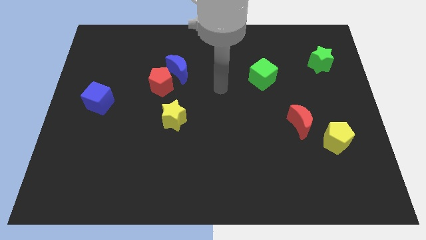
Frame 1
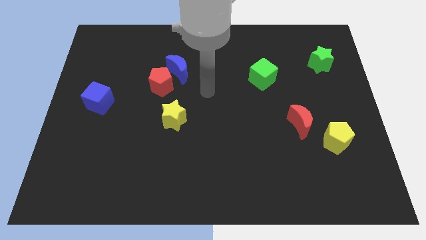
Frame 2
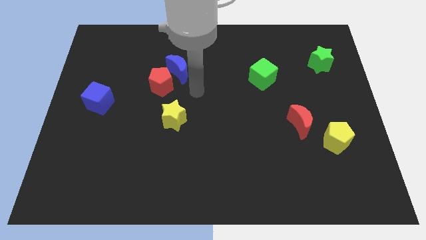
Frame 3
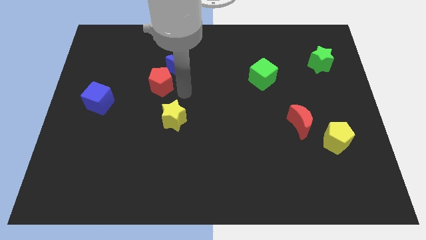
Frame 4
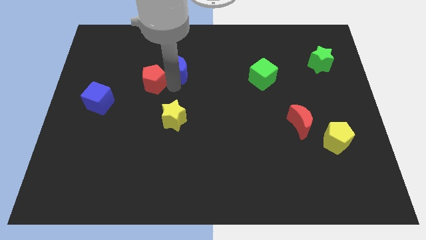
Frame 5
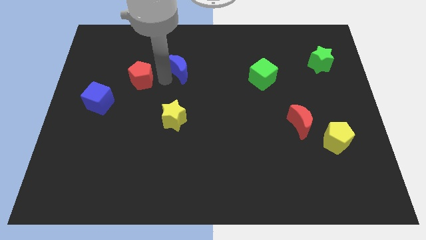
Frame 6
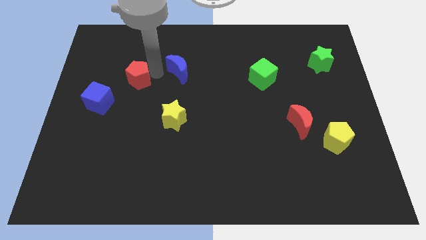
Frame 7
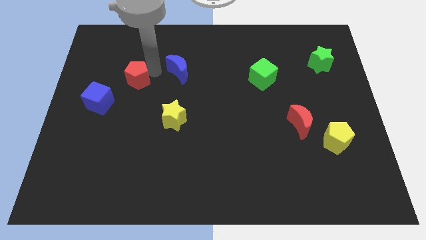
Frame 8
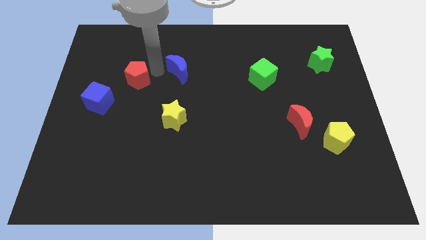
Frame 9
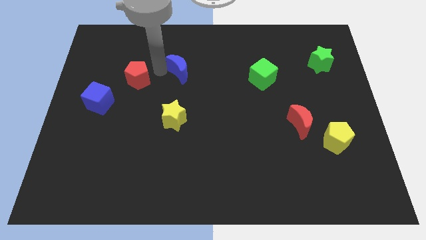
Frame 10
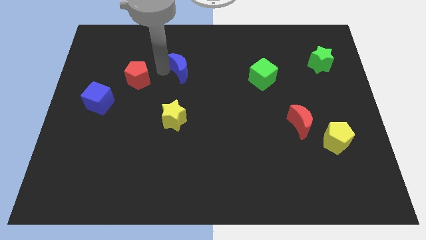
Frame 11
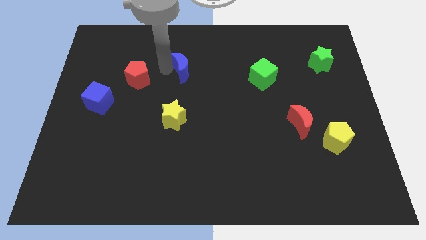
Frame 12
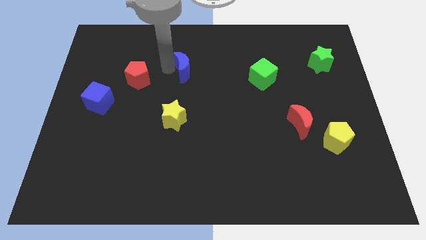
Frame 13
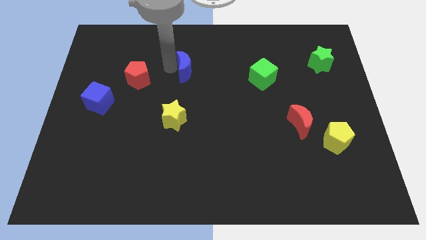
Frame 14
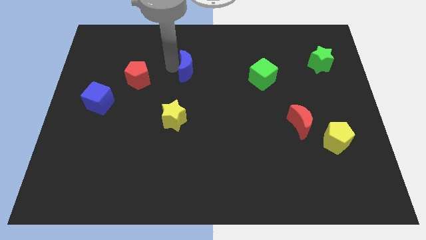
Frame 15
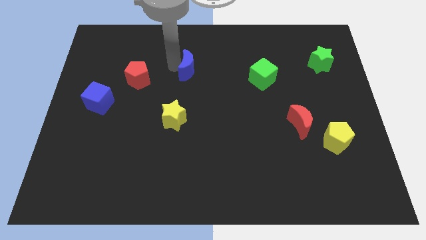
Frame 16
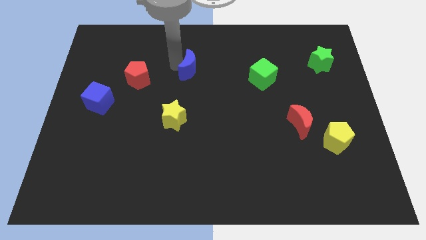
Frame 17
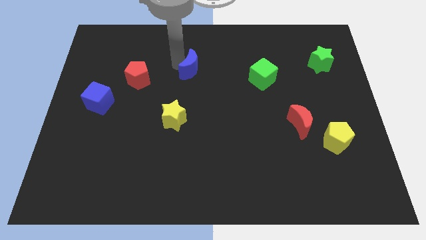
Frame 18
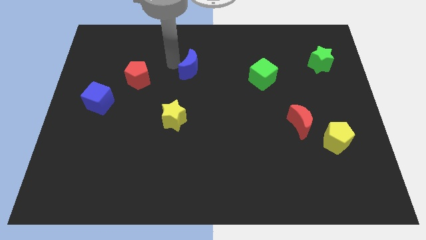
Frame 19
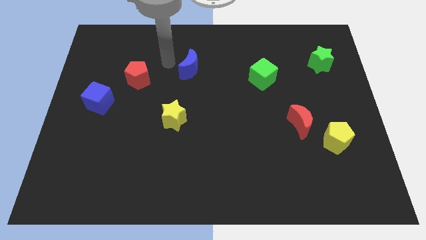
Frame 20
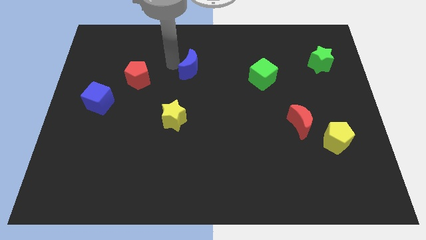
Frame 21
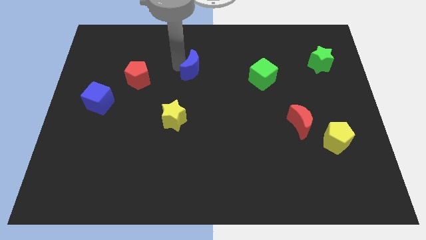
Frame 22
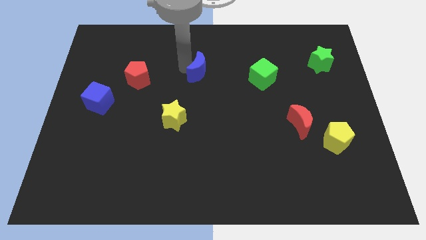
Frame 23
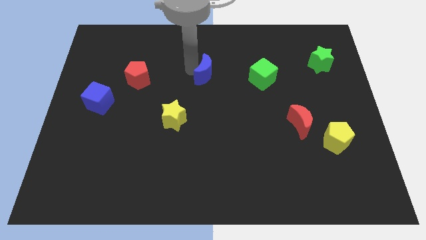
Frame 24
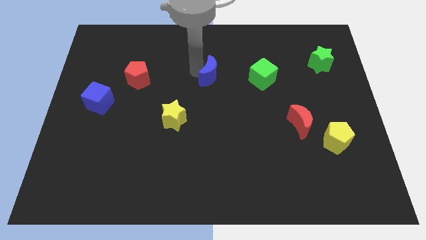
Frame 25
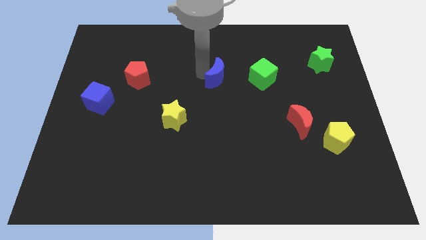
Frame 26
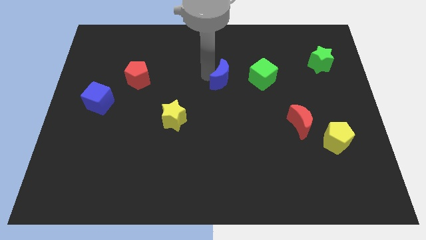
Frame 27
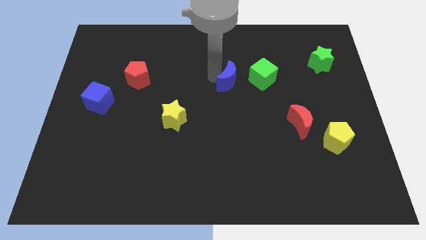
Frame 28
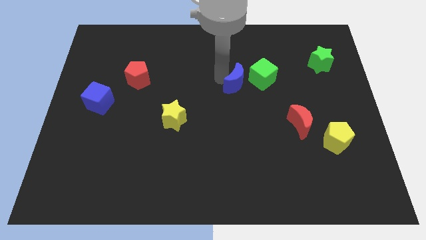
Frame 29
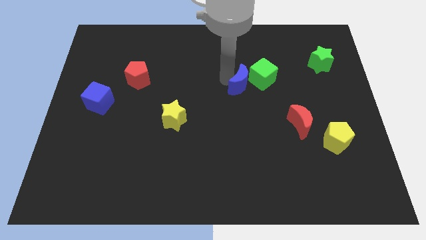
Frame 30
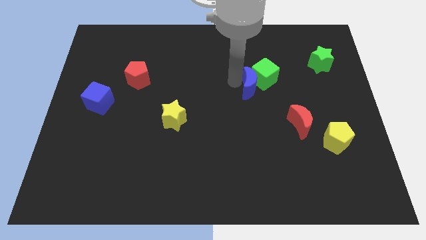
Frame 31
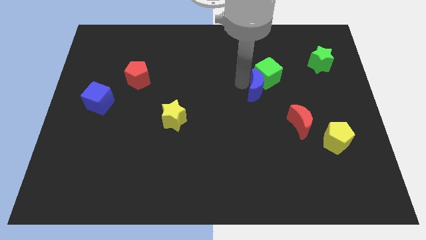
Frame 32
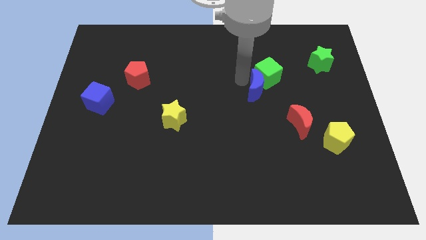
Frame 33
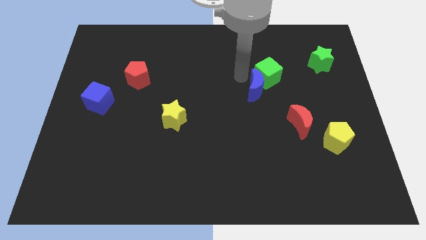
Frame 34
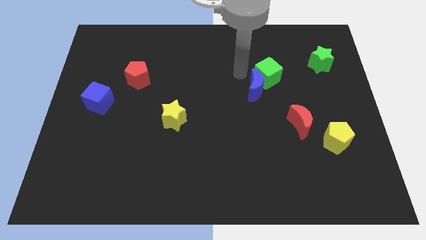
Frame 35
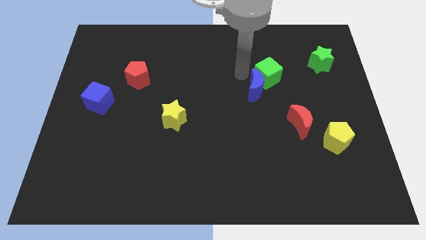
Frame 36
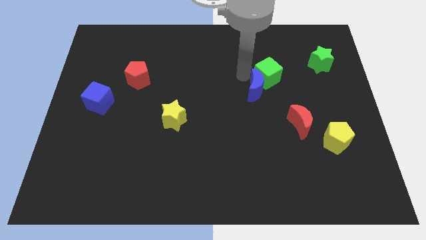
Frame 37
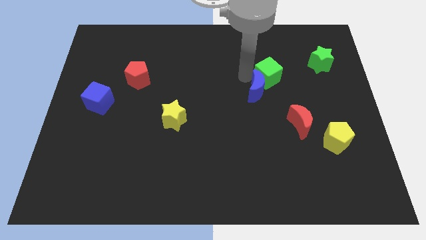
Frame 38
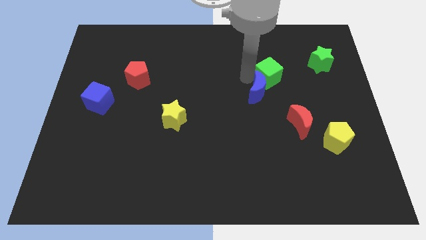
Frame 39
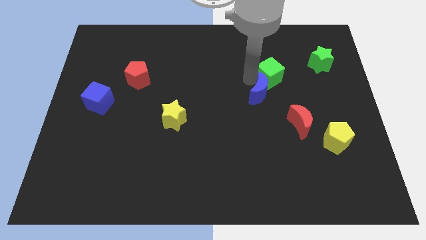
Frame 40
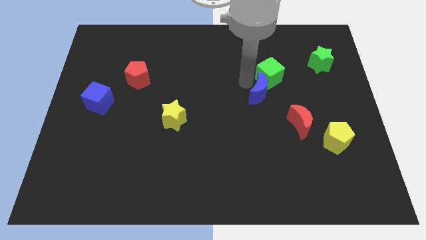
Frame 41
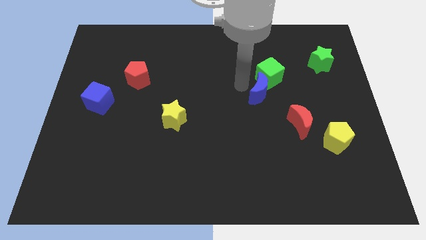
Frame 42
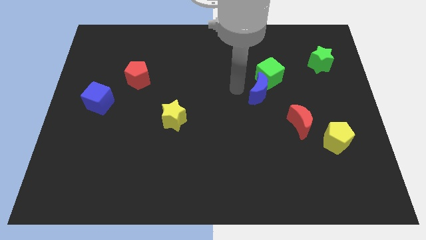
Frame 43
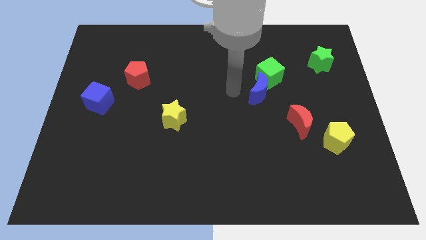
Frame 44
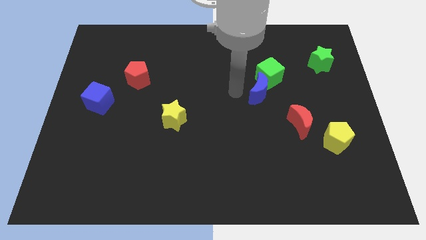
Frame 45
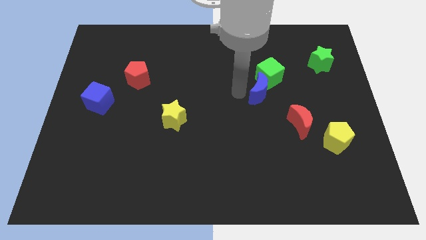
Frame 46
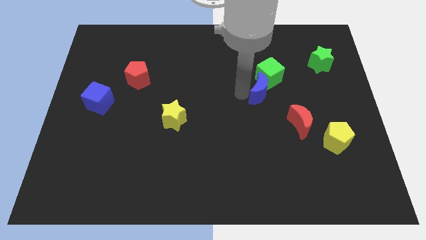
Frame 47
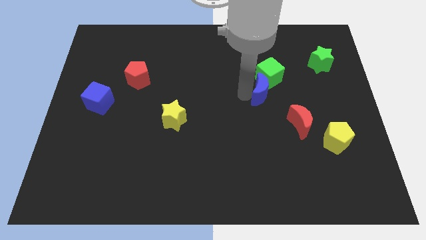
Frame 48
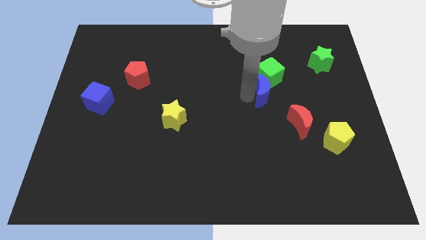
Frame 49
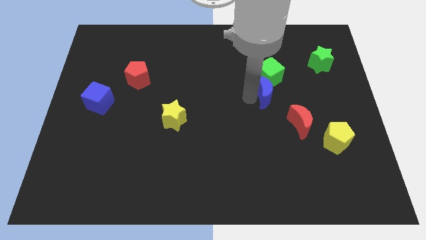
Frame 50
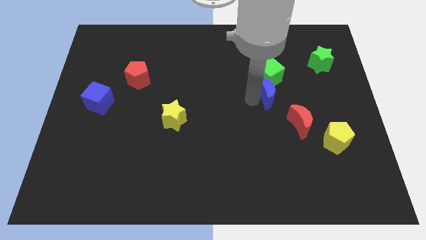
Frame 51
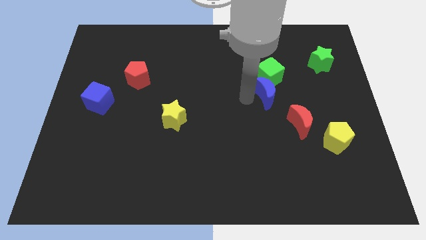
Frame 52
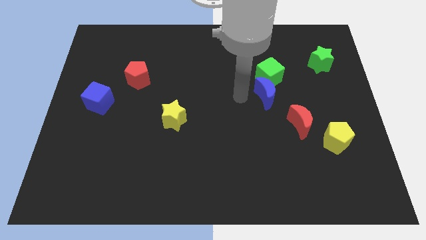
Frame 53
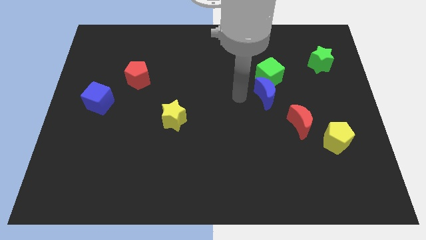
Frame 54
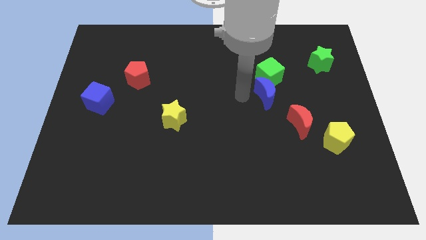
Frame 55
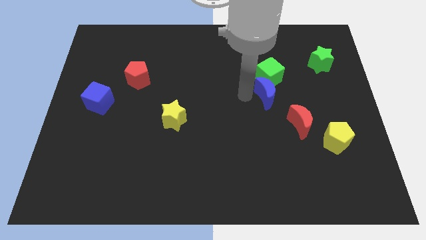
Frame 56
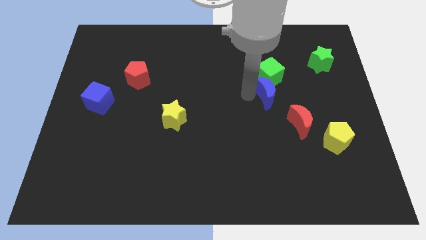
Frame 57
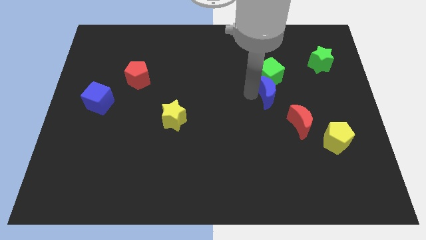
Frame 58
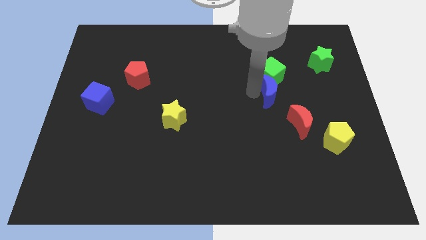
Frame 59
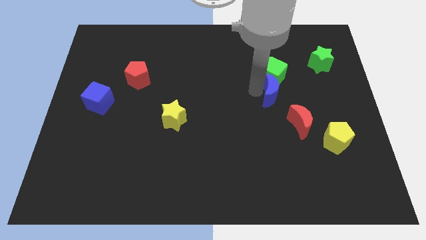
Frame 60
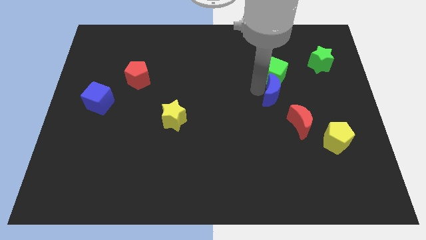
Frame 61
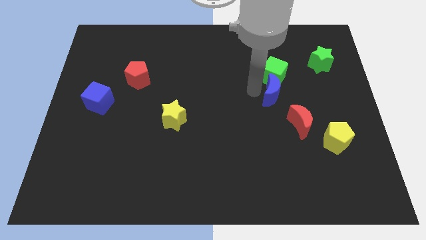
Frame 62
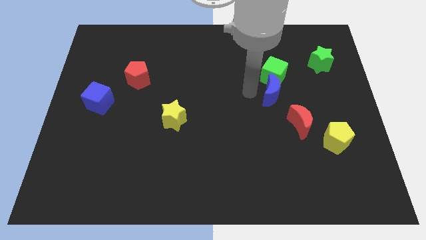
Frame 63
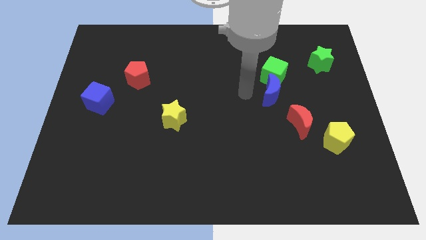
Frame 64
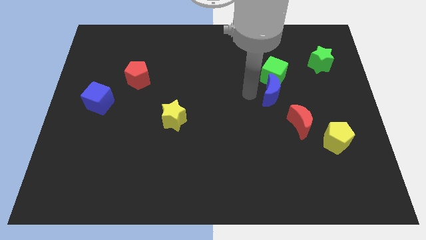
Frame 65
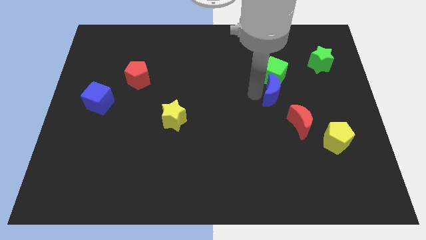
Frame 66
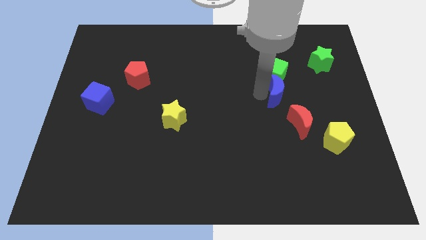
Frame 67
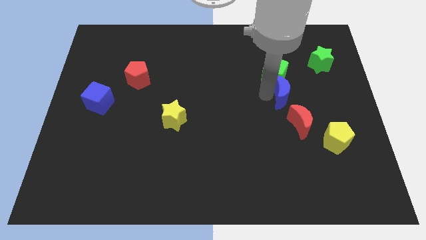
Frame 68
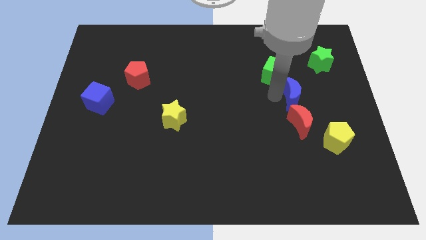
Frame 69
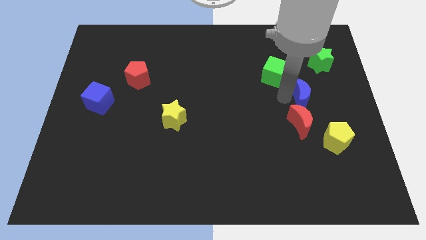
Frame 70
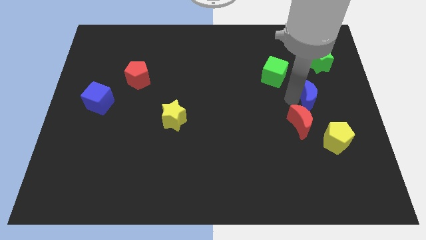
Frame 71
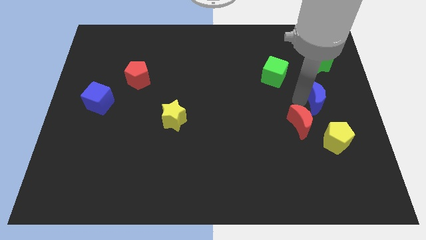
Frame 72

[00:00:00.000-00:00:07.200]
move the blue moon to the bottom side of the green star

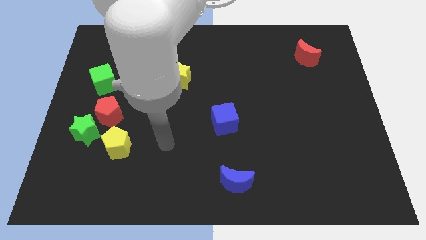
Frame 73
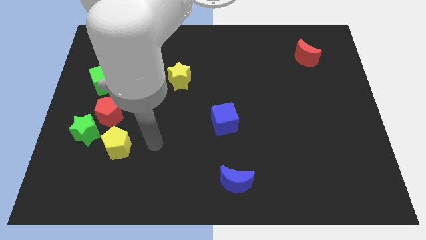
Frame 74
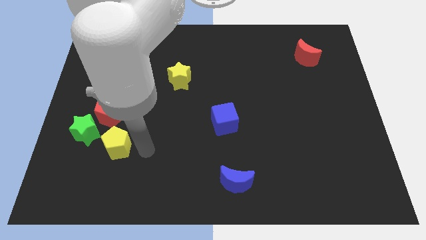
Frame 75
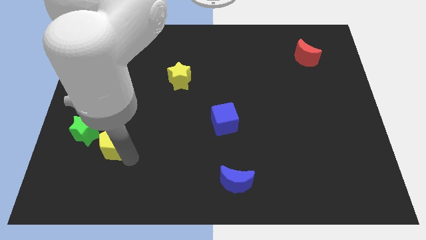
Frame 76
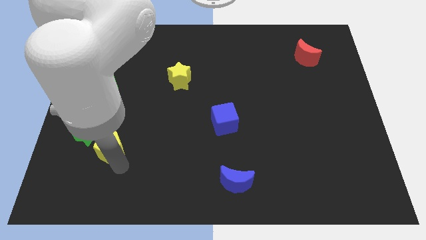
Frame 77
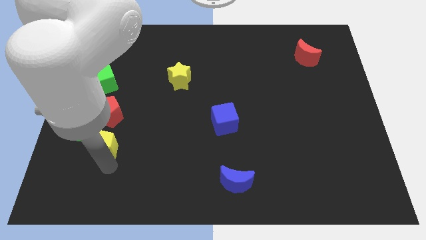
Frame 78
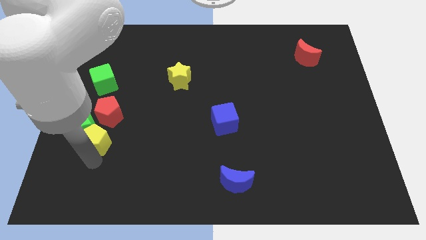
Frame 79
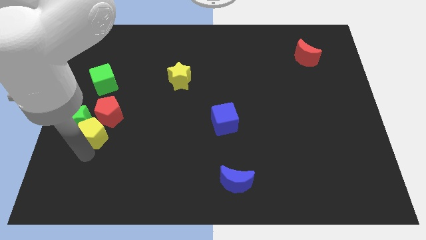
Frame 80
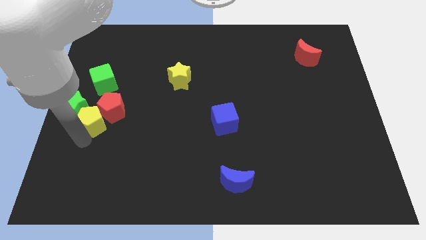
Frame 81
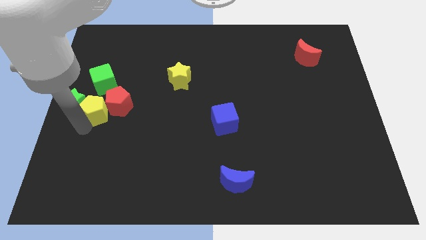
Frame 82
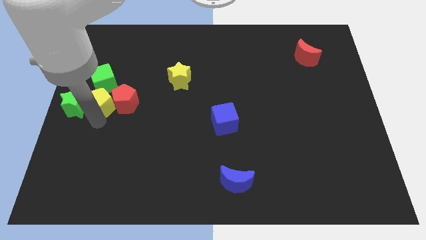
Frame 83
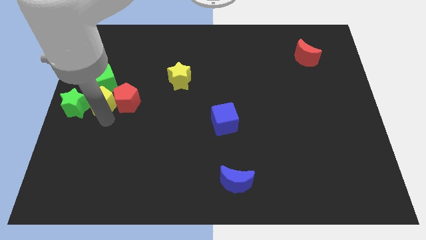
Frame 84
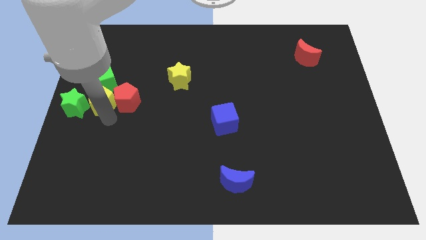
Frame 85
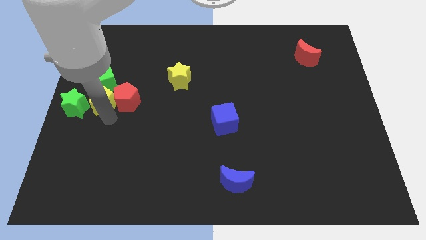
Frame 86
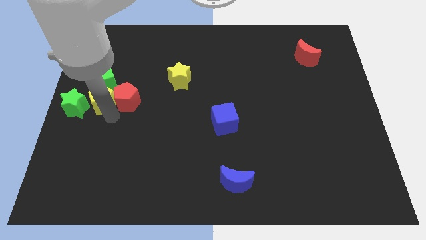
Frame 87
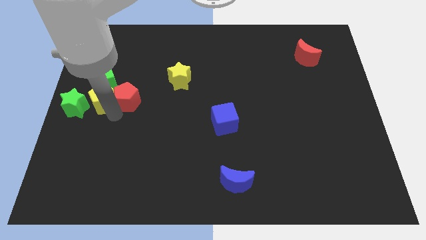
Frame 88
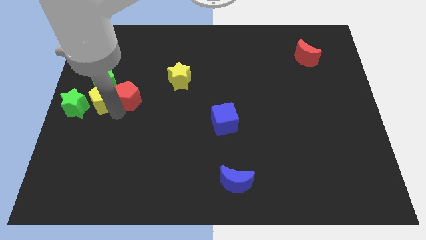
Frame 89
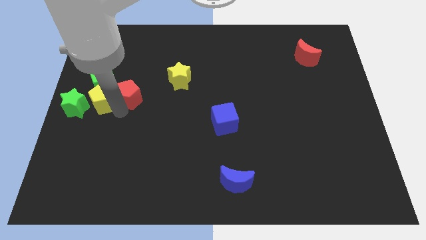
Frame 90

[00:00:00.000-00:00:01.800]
move the red pentagon right of the green cube
